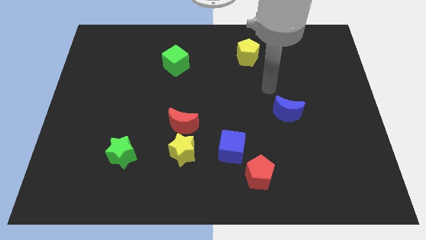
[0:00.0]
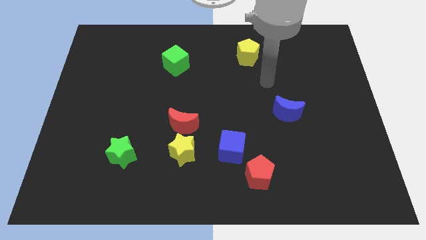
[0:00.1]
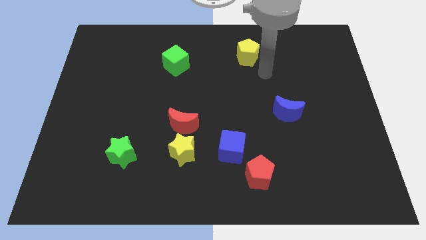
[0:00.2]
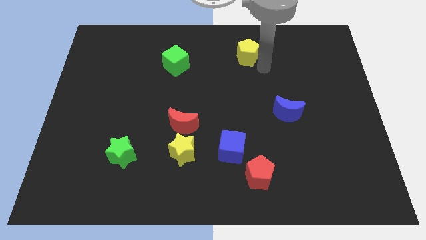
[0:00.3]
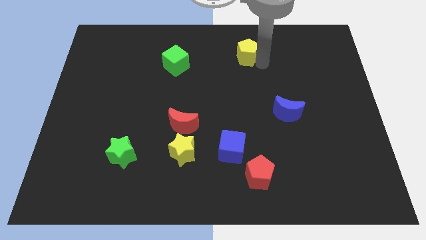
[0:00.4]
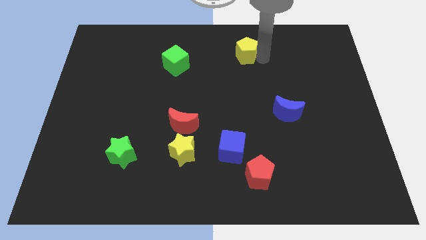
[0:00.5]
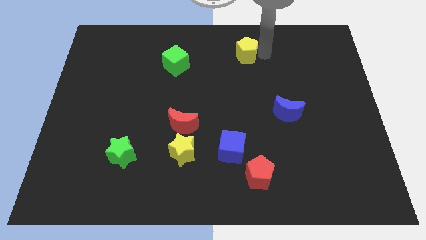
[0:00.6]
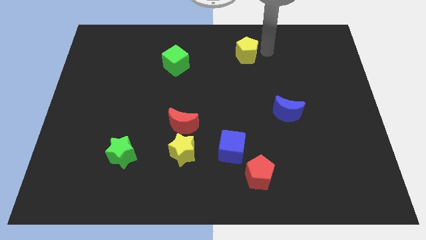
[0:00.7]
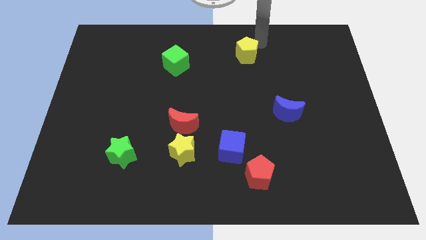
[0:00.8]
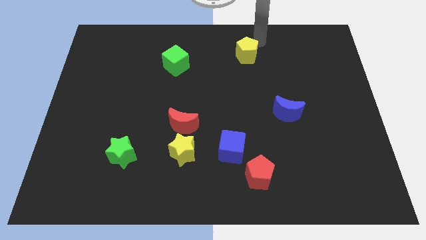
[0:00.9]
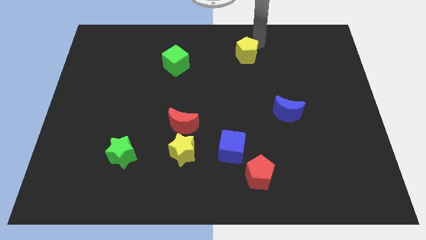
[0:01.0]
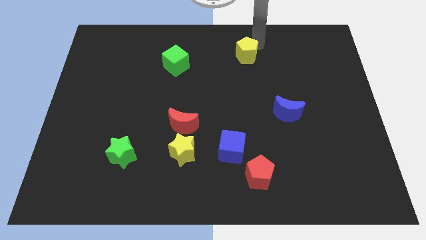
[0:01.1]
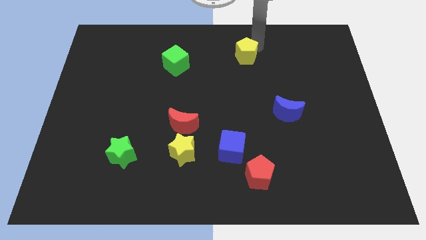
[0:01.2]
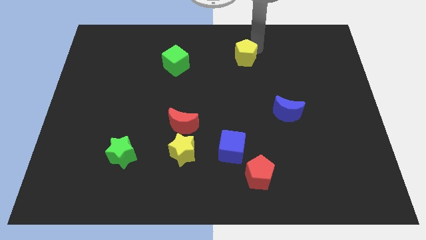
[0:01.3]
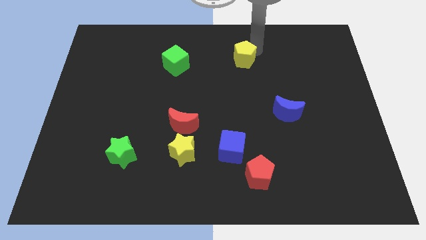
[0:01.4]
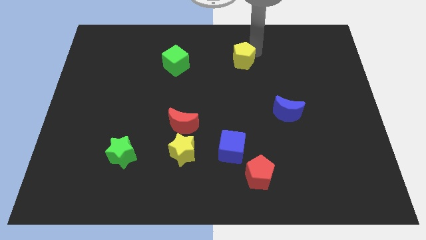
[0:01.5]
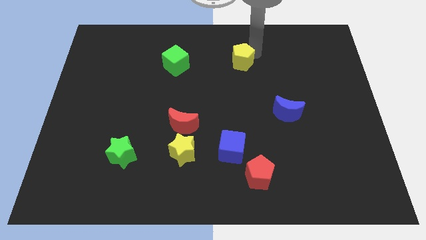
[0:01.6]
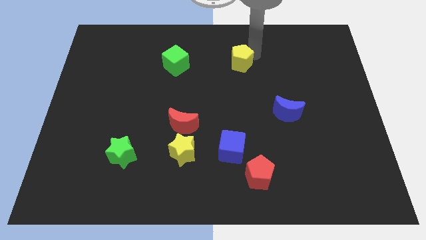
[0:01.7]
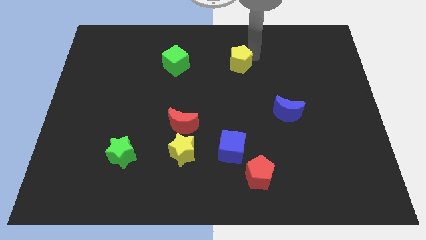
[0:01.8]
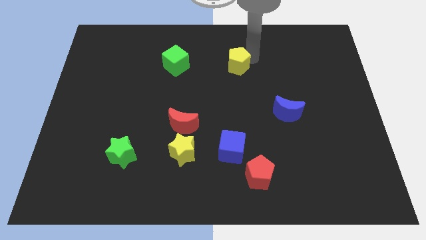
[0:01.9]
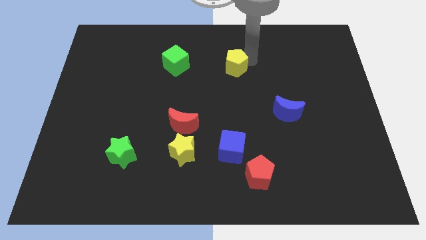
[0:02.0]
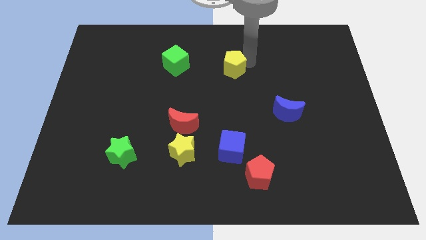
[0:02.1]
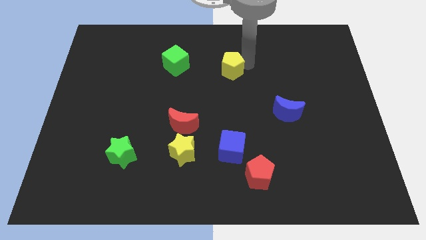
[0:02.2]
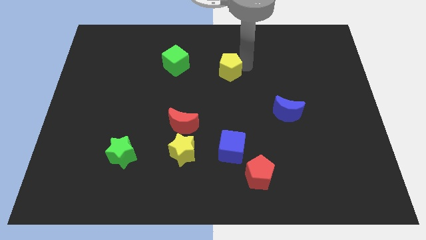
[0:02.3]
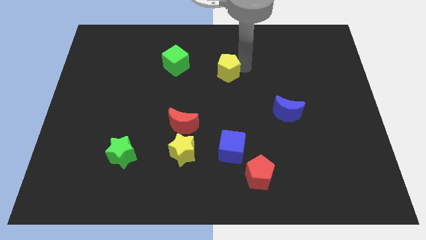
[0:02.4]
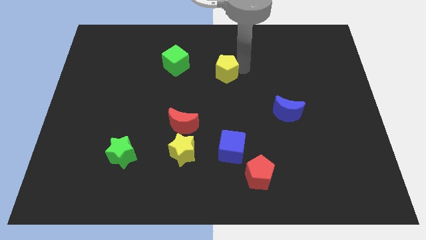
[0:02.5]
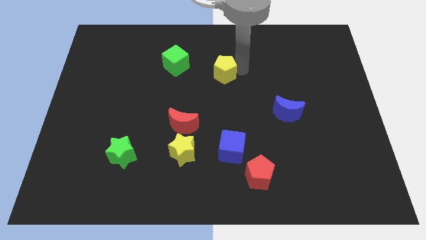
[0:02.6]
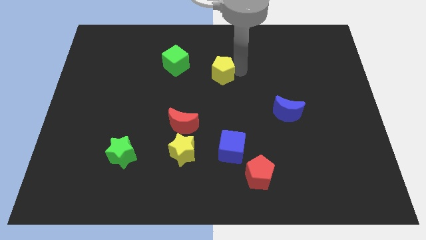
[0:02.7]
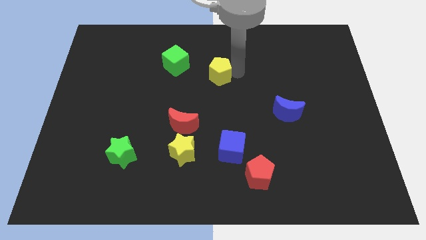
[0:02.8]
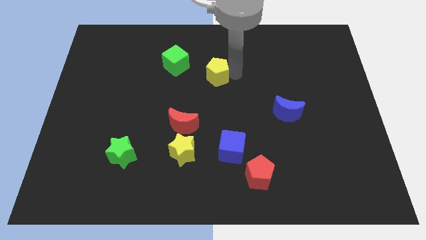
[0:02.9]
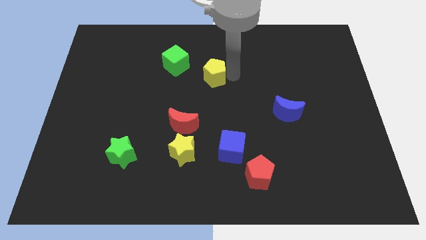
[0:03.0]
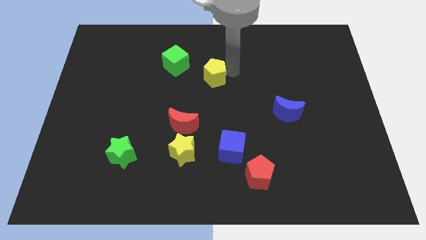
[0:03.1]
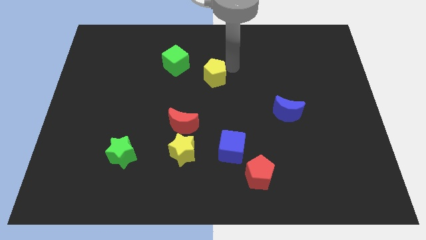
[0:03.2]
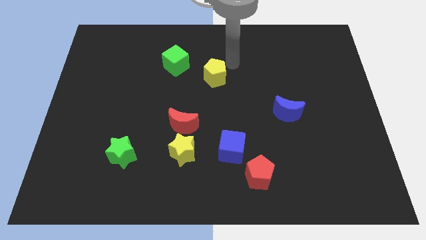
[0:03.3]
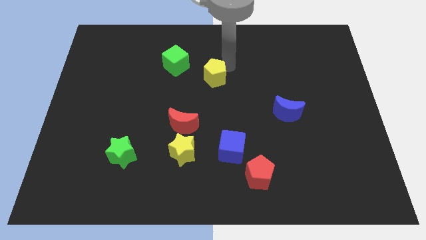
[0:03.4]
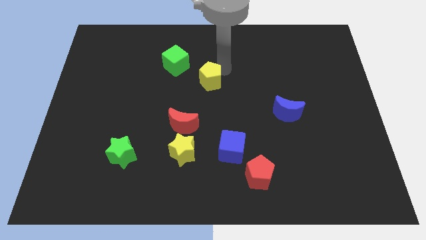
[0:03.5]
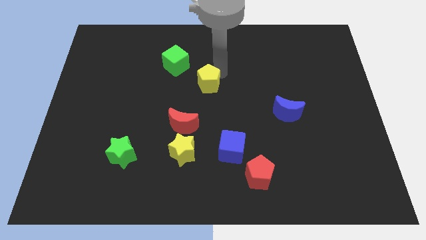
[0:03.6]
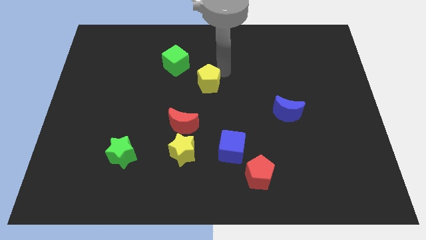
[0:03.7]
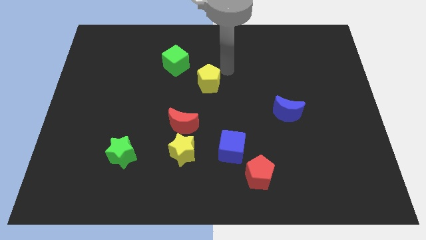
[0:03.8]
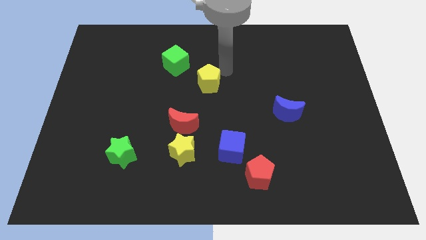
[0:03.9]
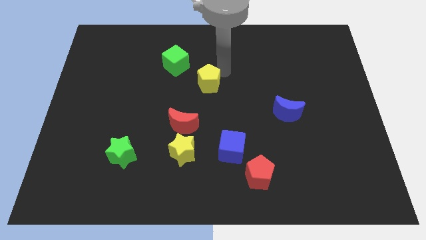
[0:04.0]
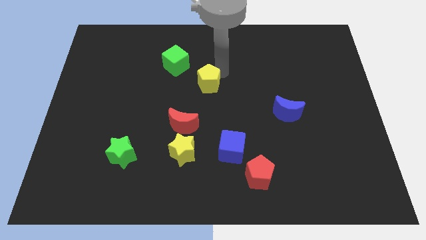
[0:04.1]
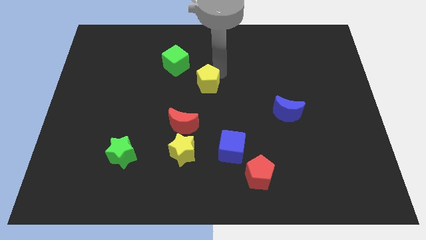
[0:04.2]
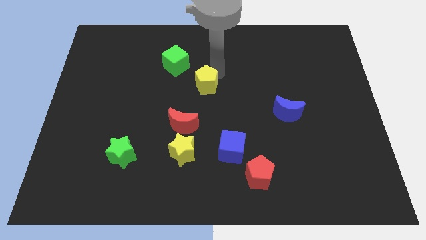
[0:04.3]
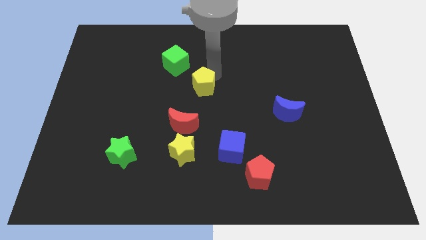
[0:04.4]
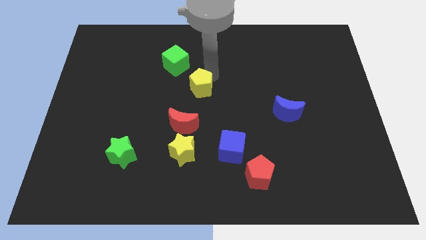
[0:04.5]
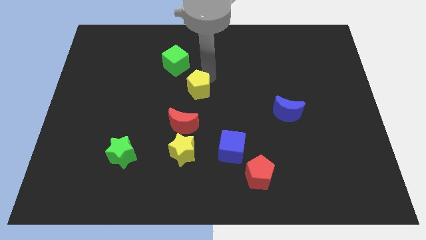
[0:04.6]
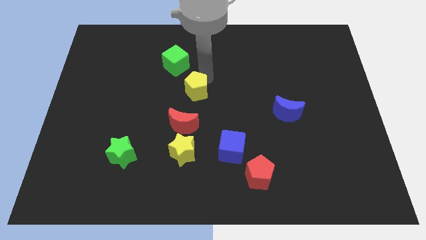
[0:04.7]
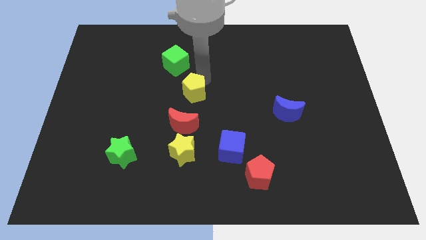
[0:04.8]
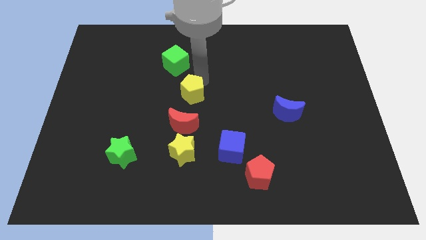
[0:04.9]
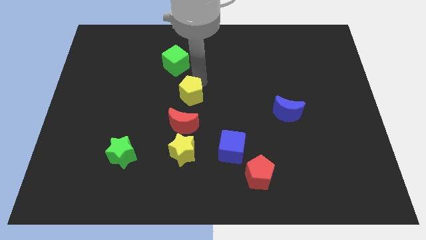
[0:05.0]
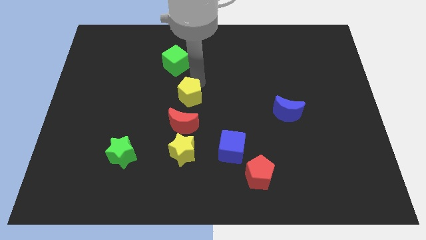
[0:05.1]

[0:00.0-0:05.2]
slide the yellow pentagon downwards and left

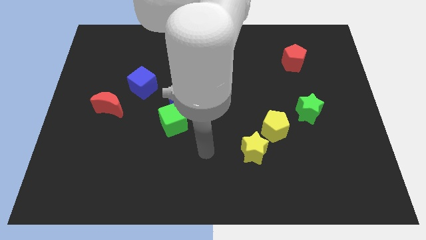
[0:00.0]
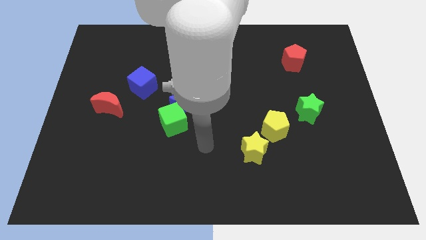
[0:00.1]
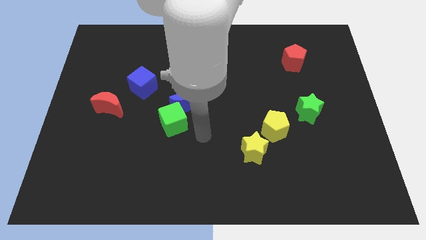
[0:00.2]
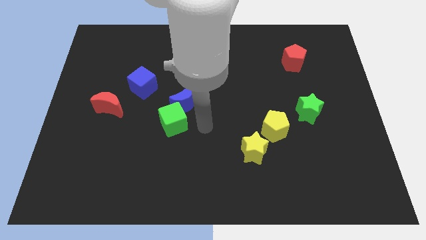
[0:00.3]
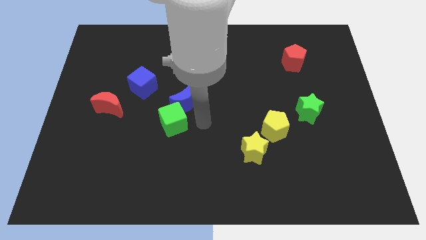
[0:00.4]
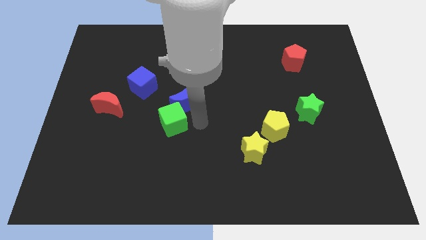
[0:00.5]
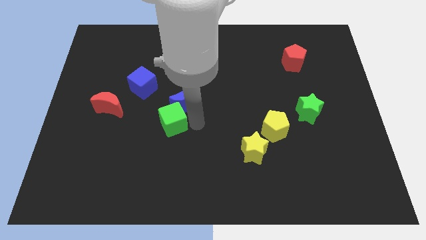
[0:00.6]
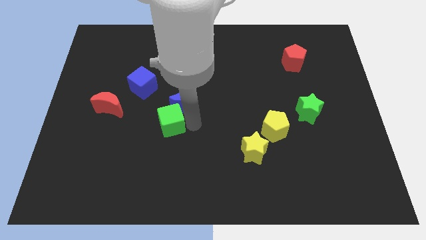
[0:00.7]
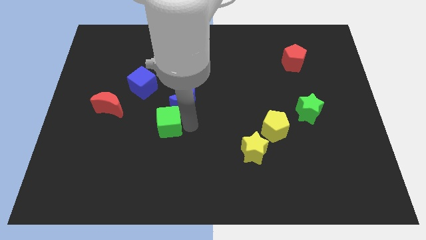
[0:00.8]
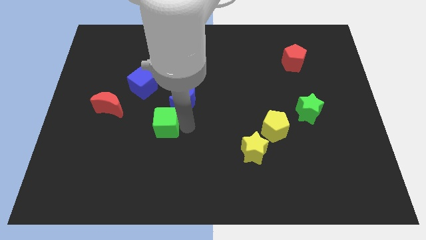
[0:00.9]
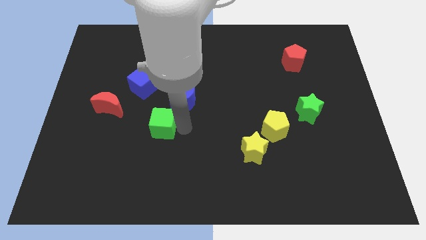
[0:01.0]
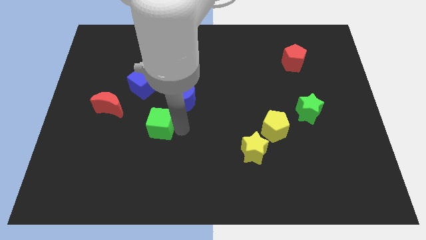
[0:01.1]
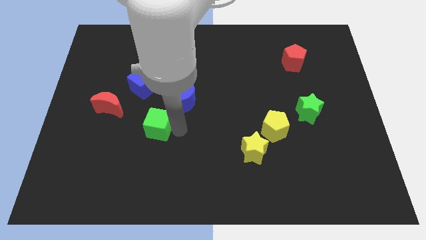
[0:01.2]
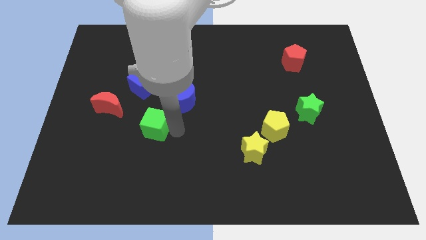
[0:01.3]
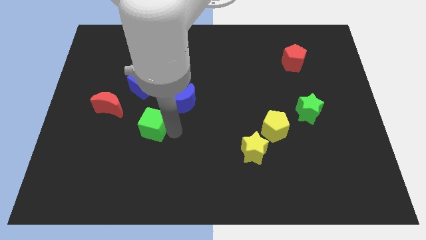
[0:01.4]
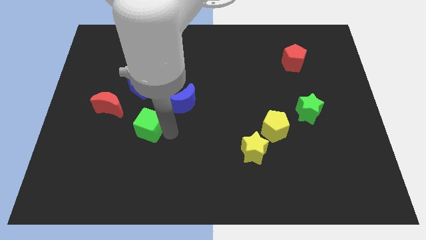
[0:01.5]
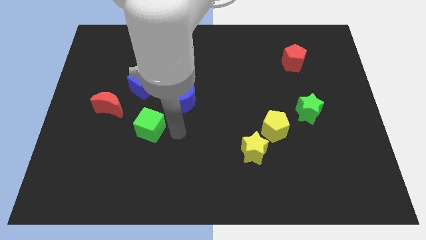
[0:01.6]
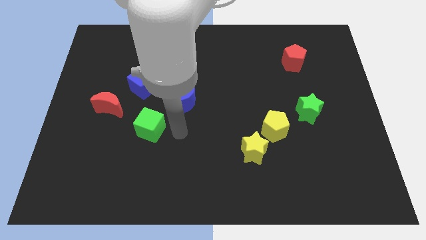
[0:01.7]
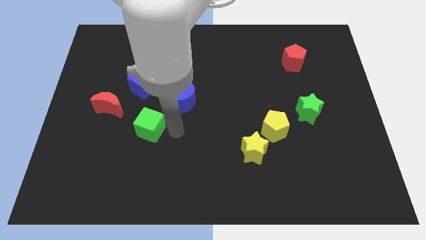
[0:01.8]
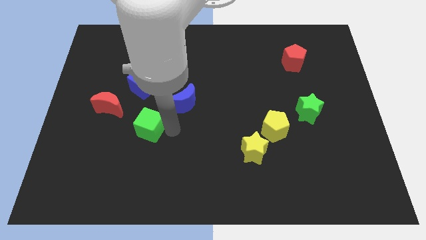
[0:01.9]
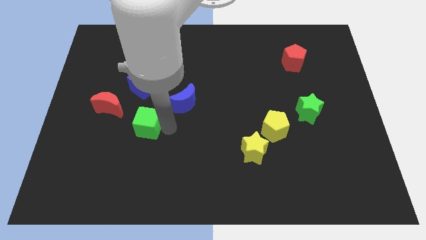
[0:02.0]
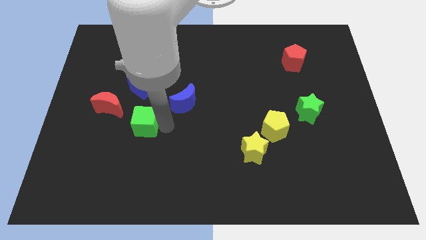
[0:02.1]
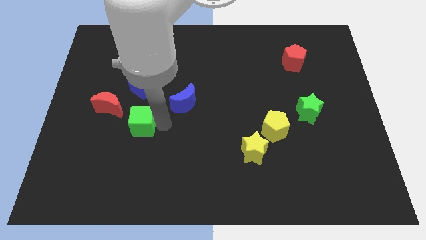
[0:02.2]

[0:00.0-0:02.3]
slightly move the green cube to the left

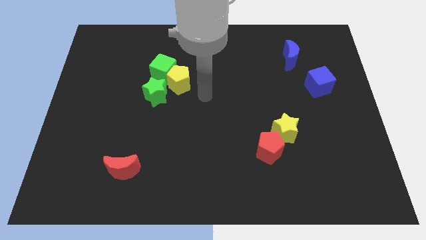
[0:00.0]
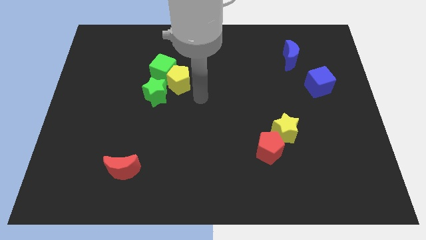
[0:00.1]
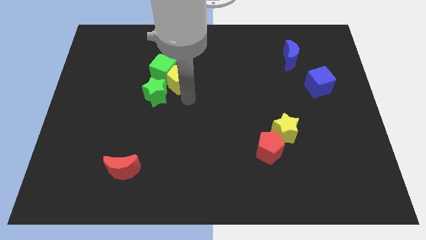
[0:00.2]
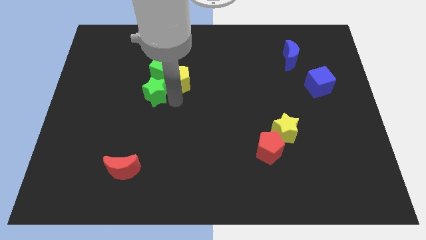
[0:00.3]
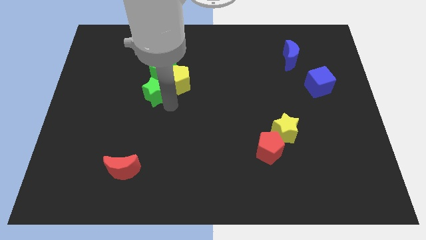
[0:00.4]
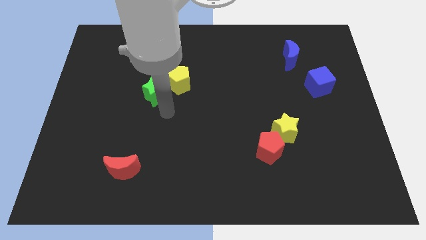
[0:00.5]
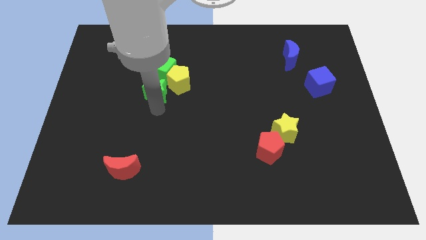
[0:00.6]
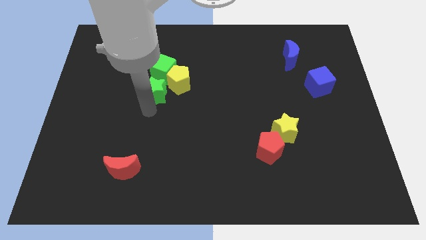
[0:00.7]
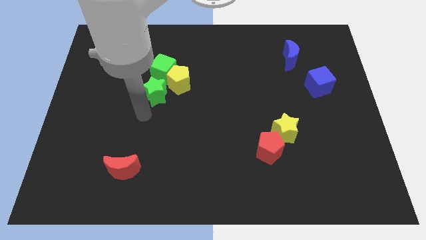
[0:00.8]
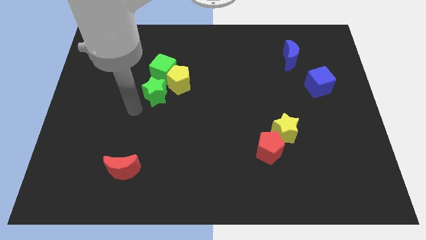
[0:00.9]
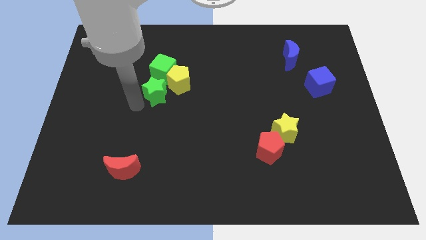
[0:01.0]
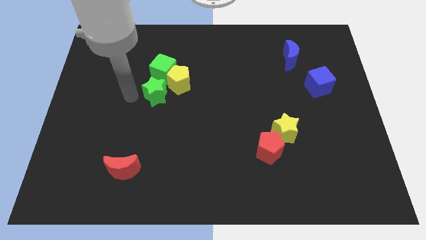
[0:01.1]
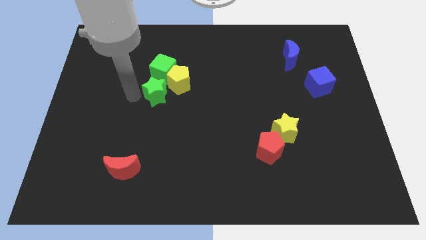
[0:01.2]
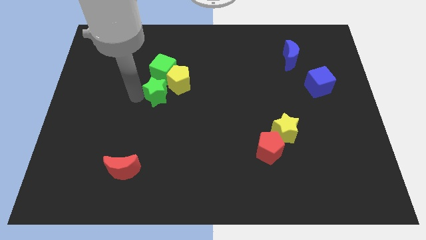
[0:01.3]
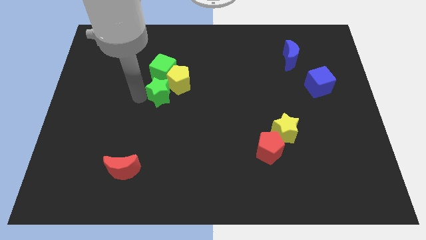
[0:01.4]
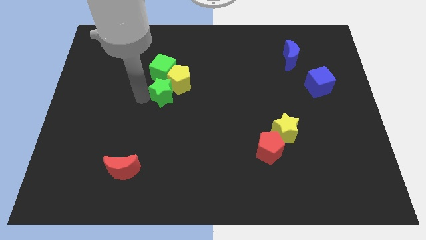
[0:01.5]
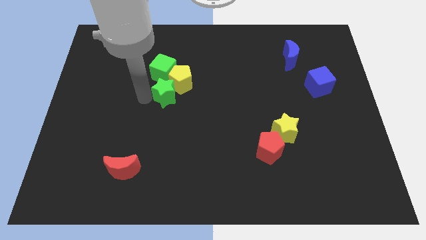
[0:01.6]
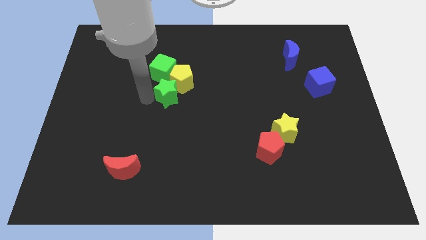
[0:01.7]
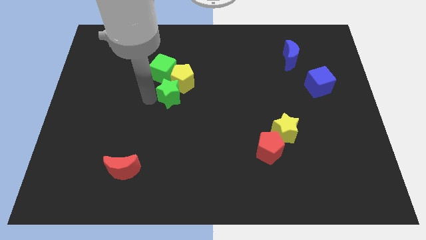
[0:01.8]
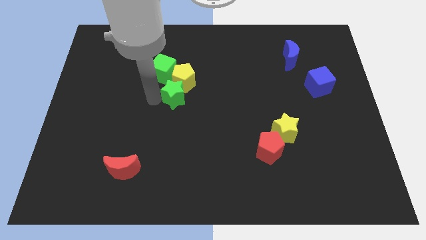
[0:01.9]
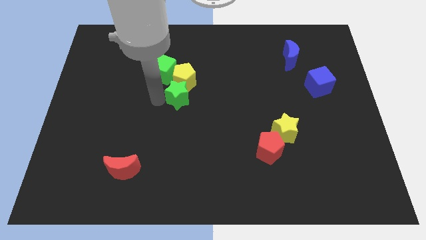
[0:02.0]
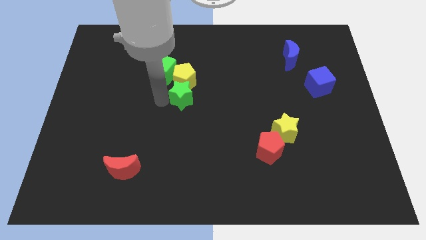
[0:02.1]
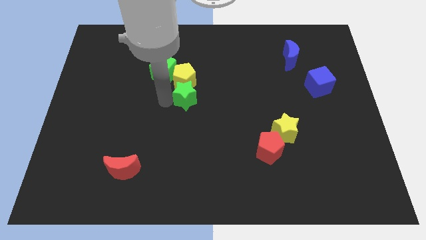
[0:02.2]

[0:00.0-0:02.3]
push the green star to the right somewhat
